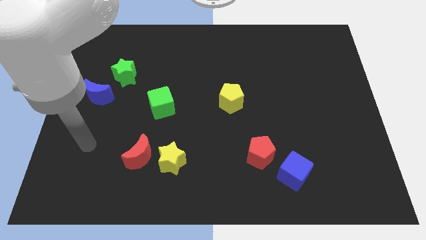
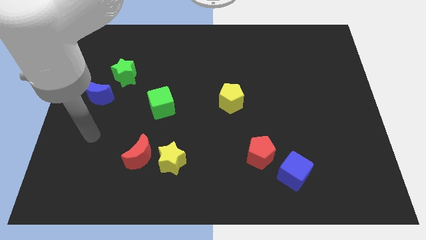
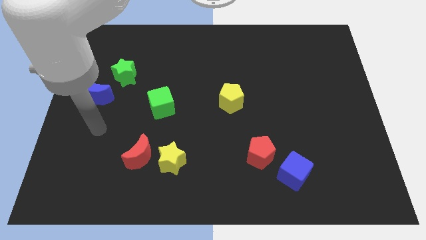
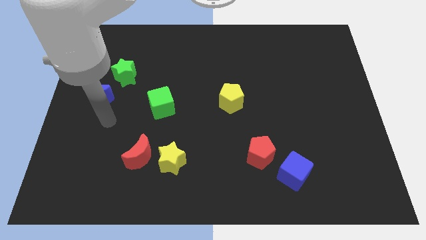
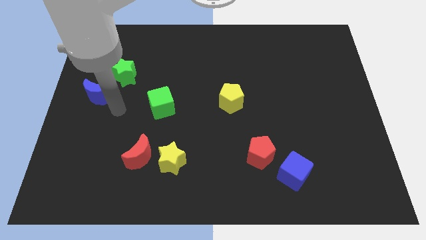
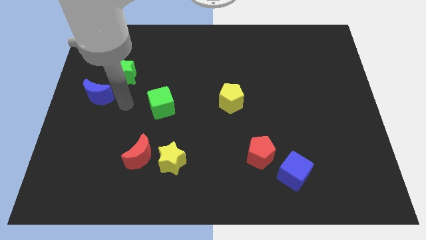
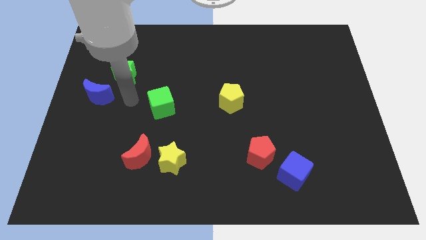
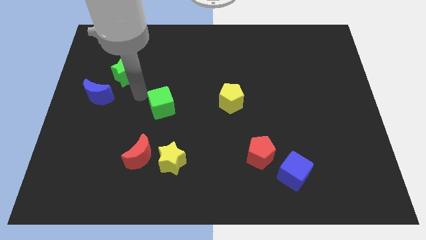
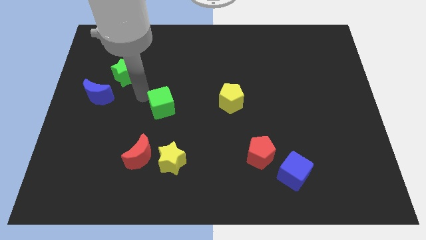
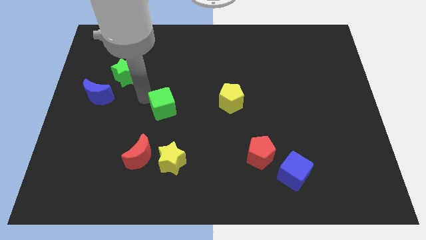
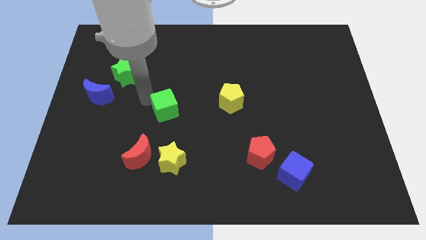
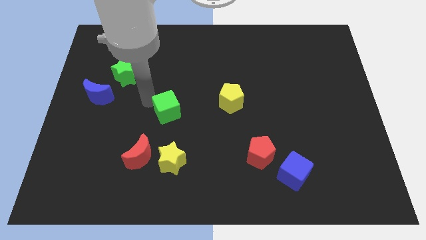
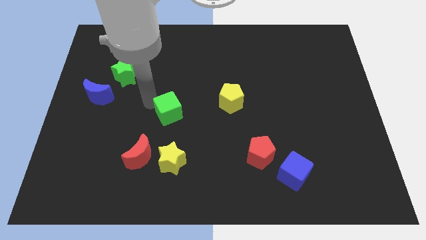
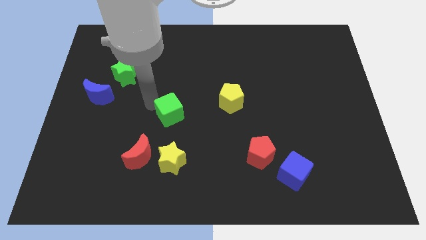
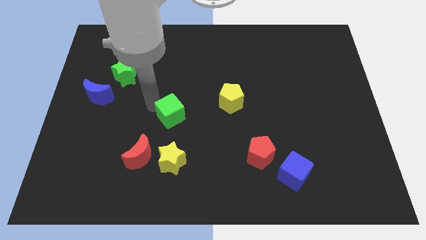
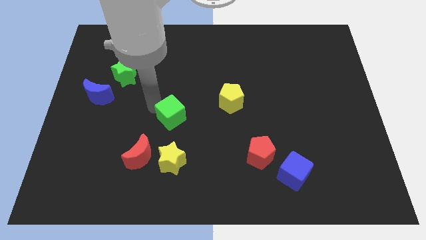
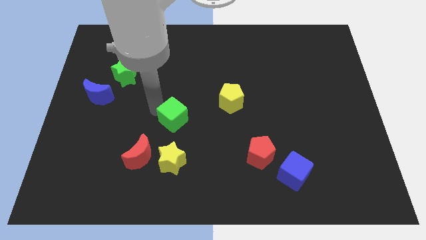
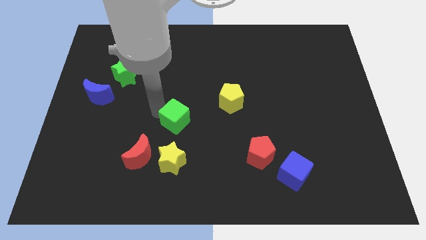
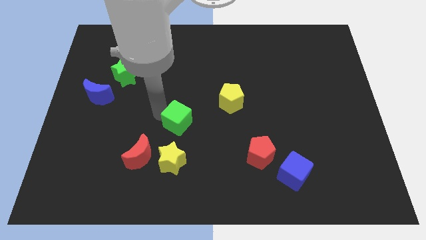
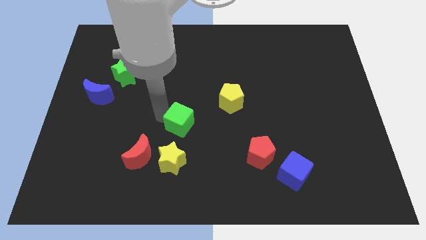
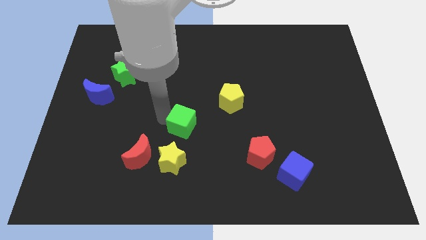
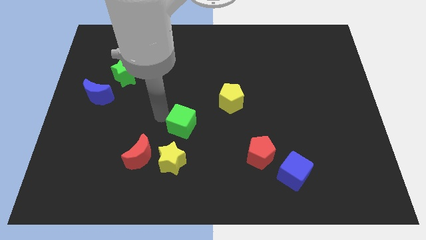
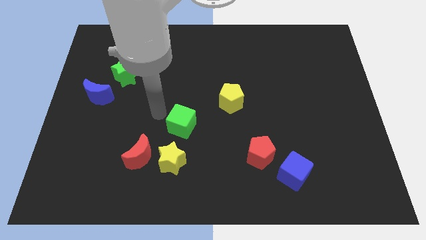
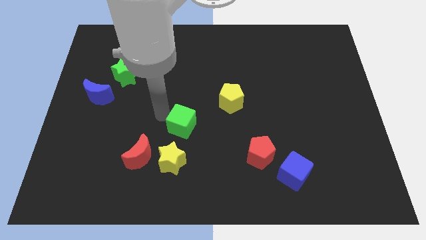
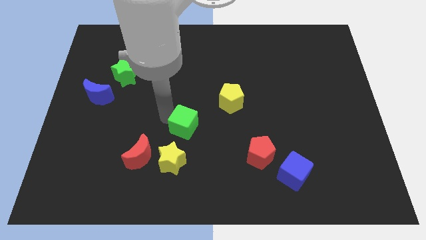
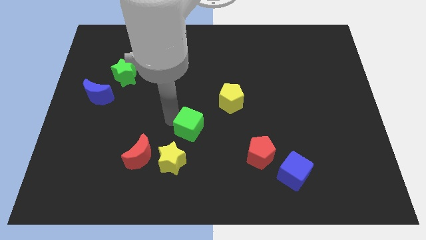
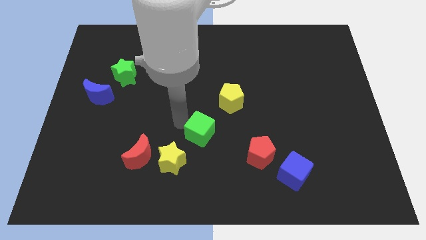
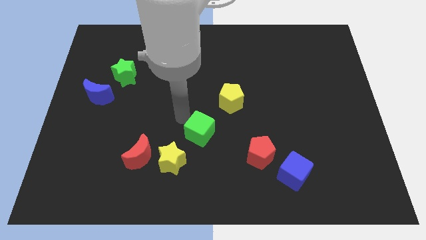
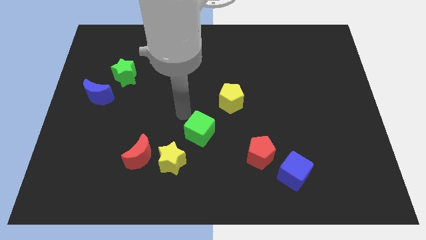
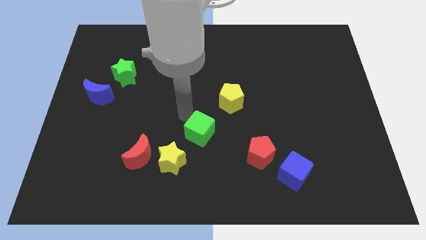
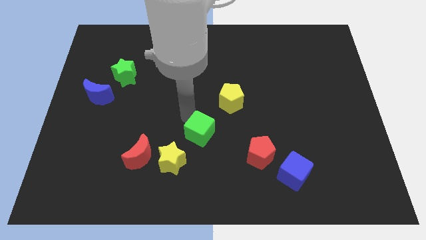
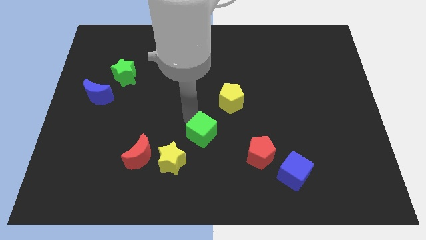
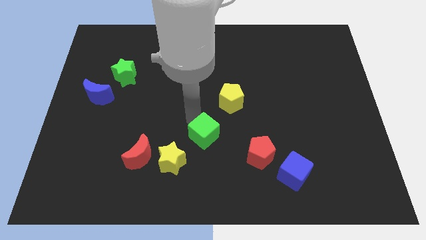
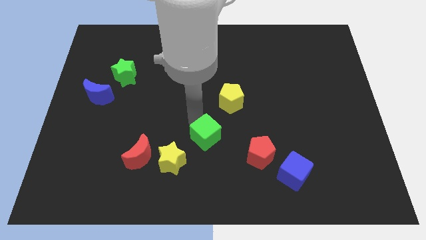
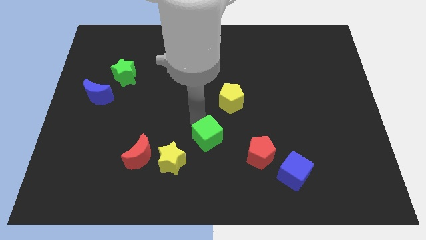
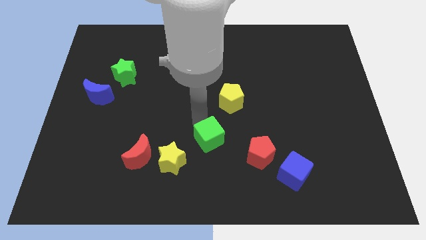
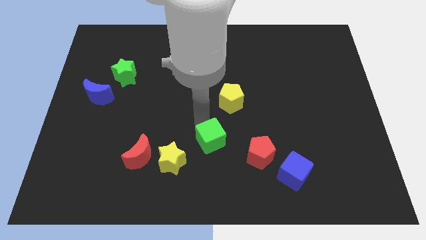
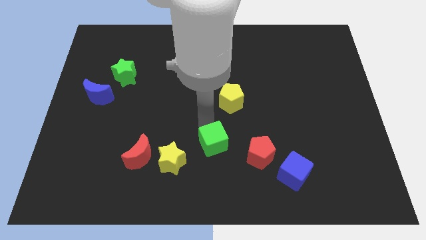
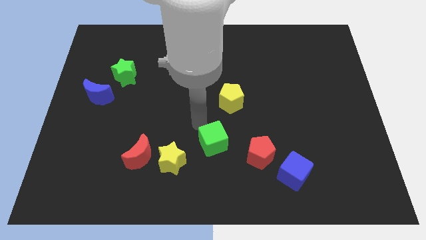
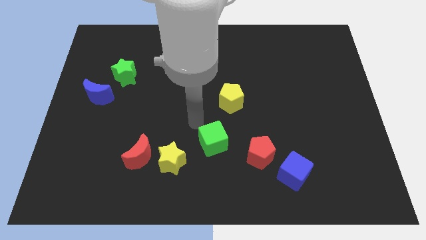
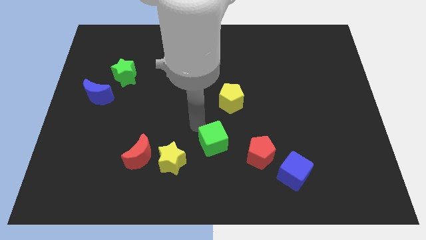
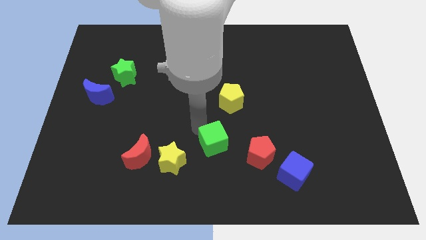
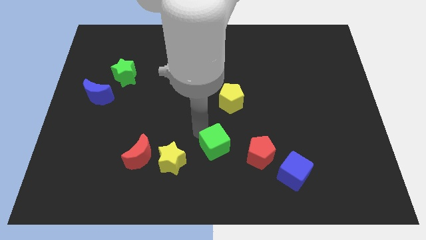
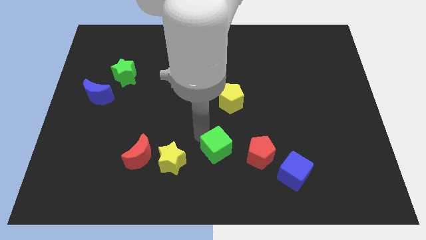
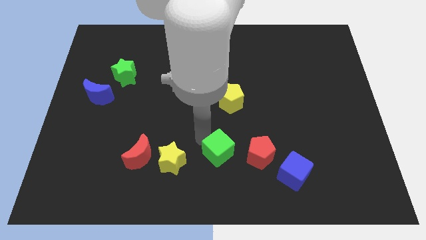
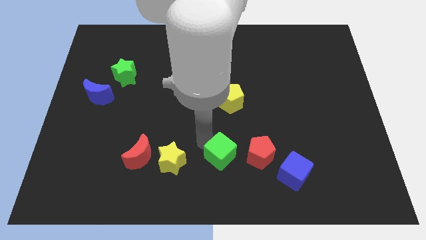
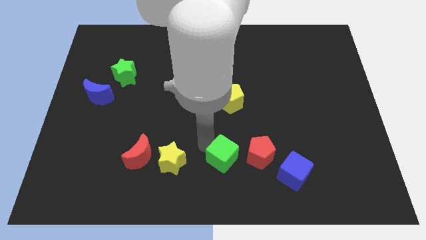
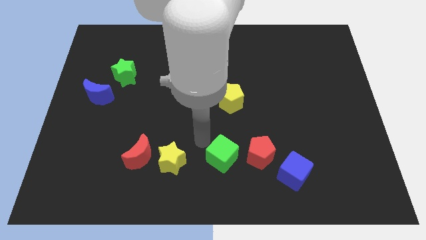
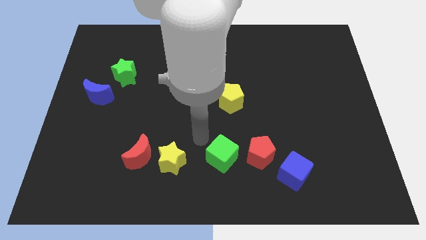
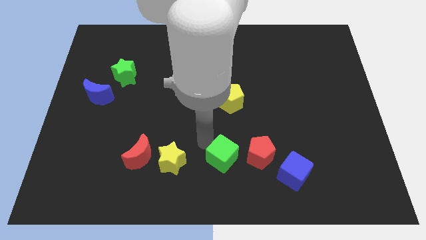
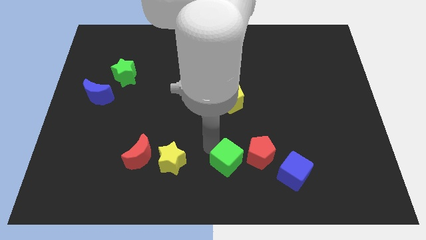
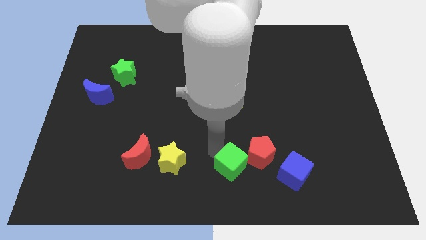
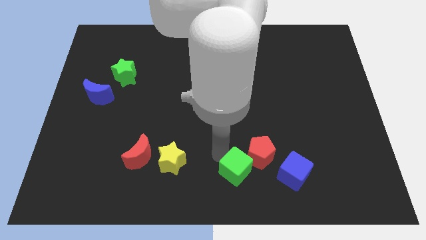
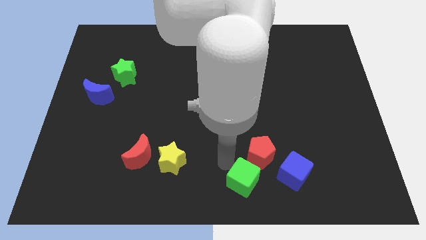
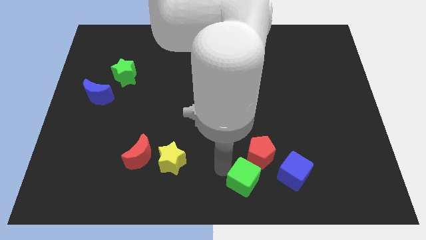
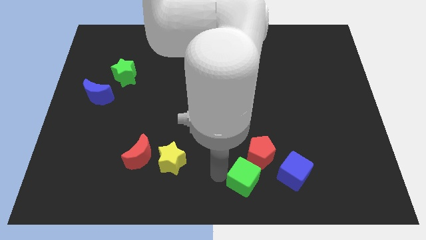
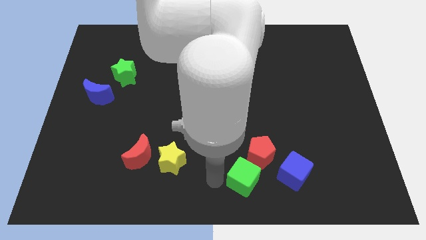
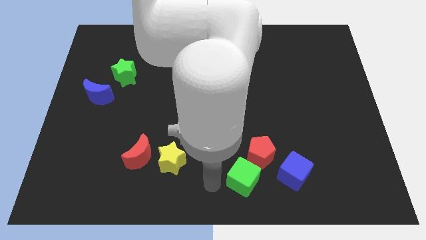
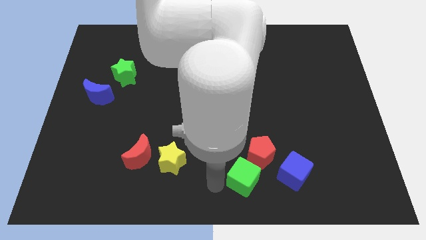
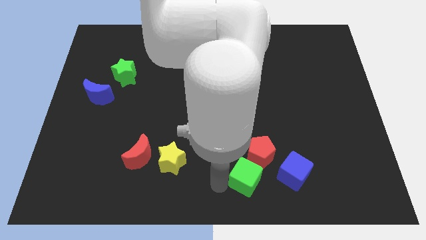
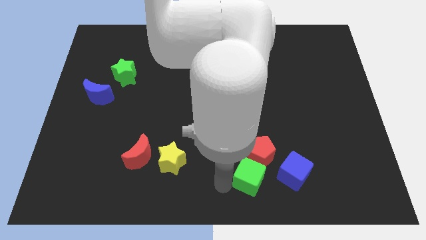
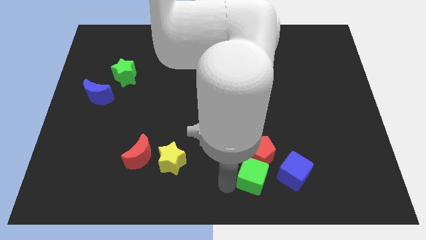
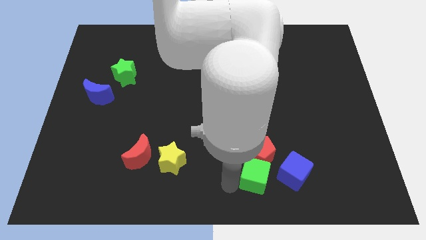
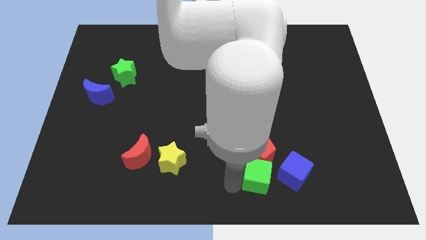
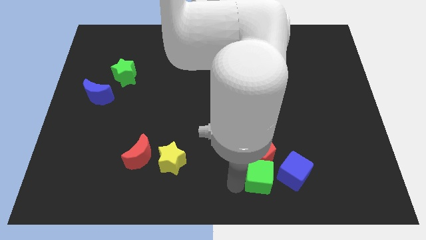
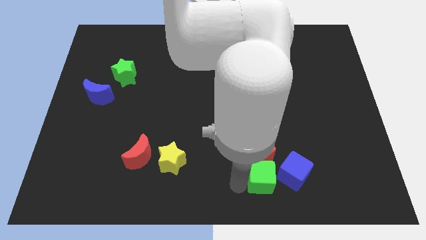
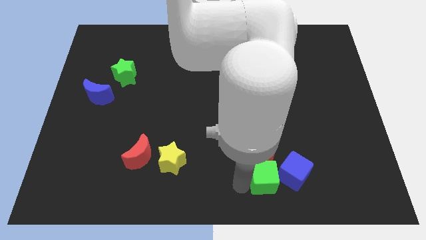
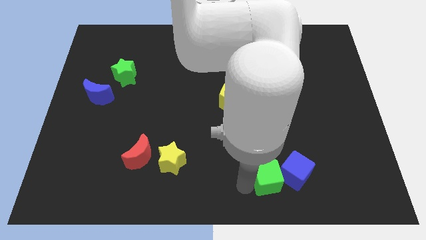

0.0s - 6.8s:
push the green cube next to the blue cube

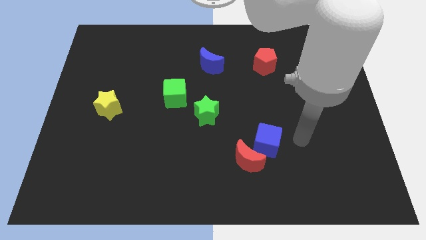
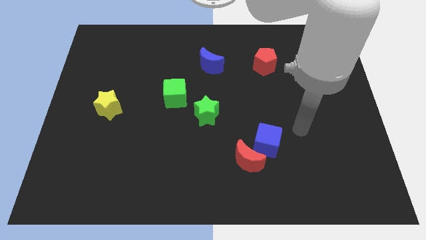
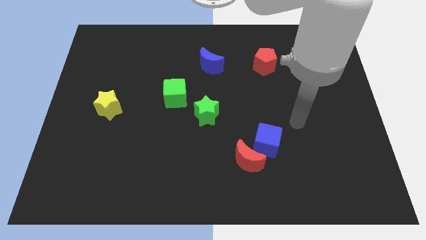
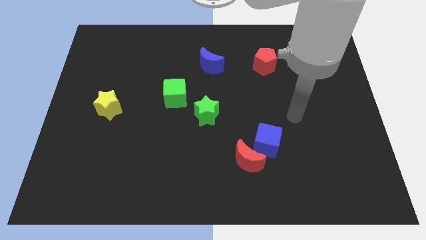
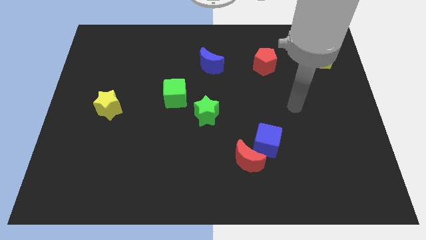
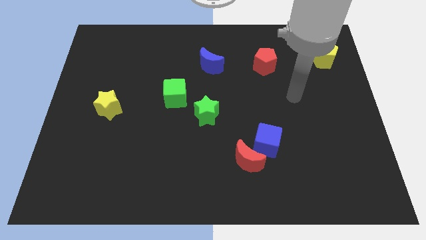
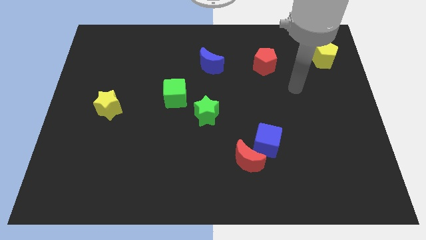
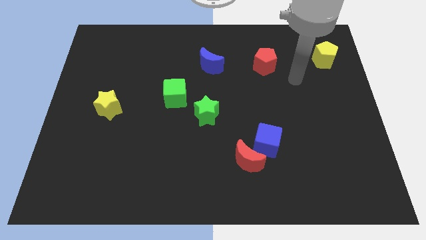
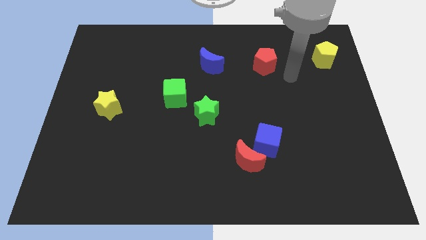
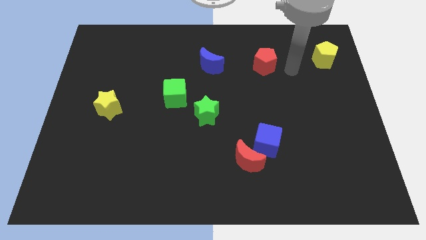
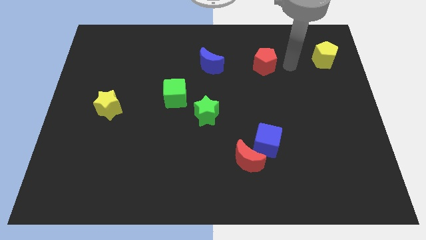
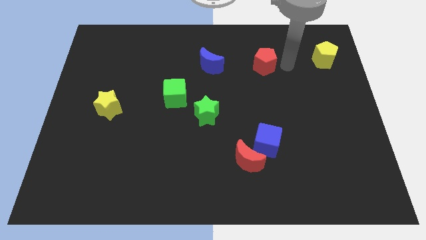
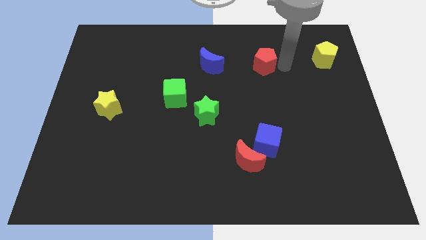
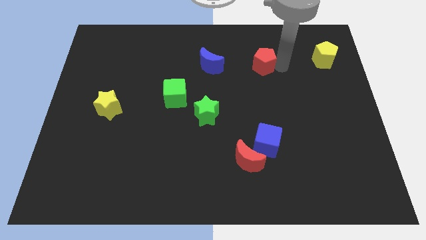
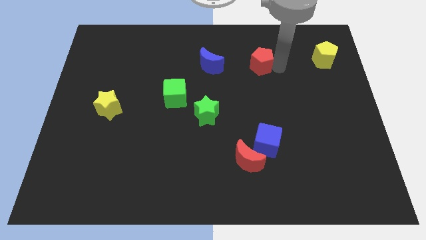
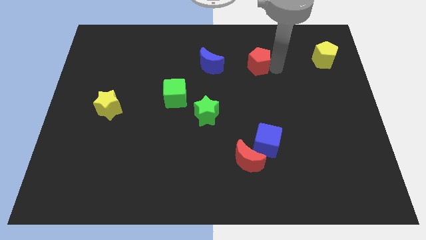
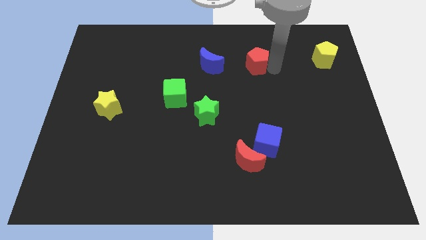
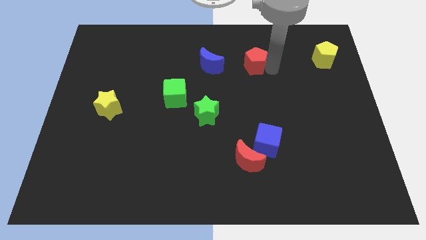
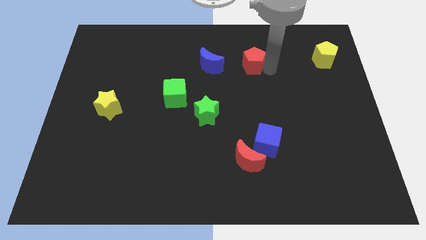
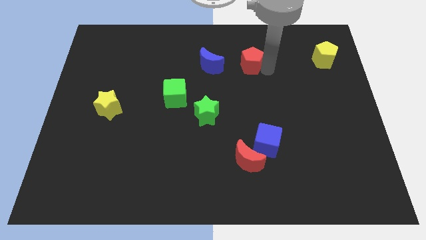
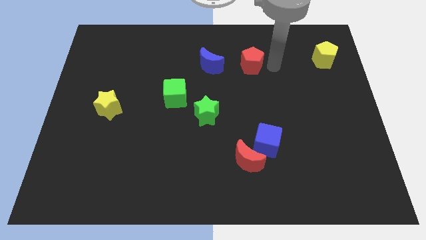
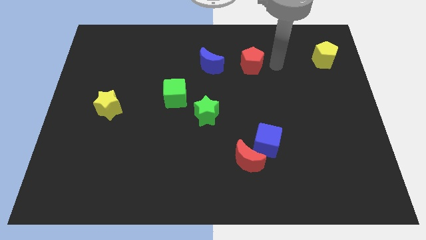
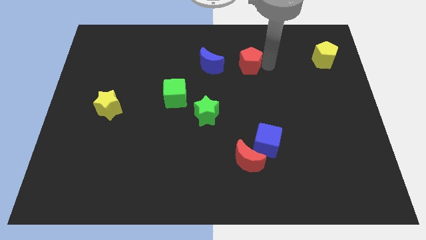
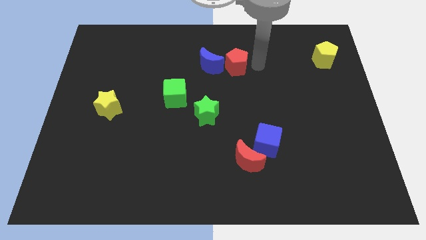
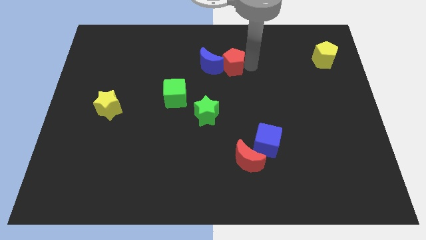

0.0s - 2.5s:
put the red pentagon to the blue moon
